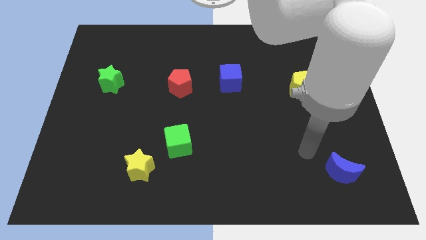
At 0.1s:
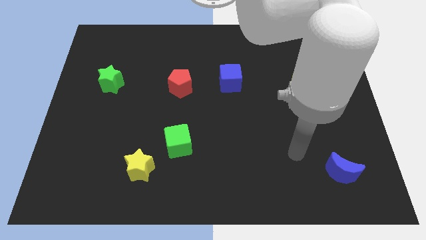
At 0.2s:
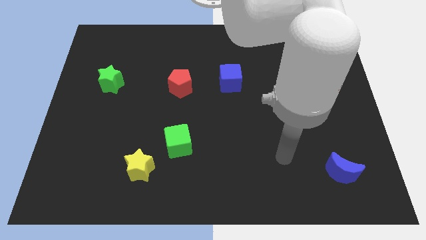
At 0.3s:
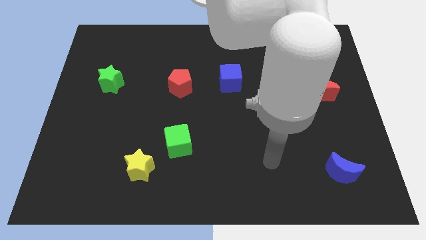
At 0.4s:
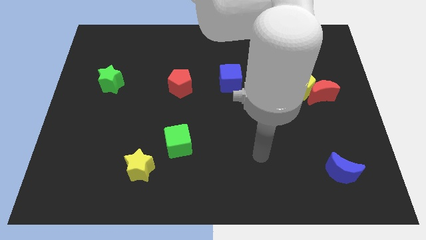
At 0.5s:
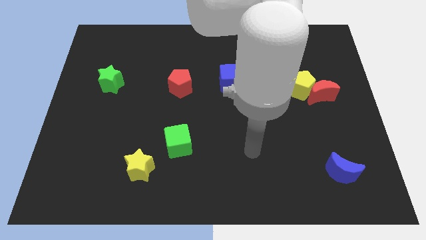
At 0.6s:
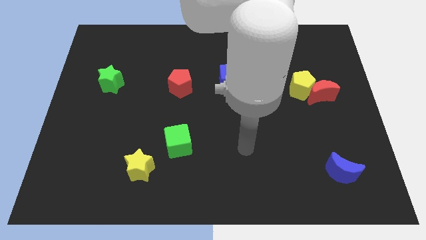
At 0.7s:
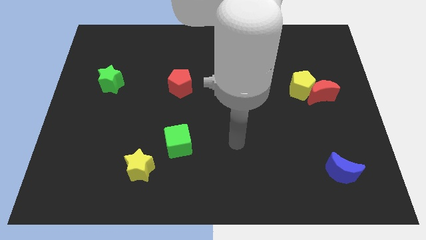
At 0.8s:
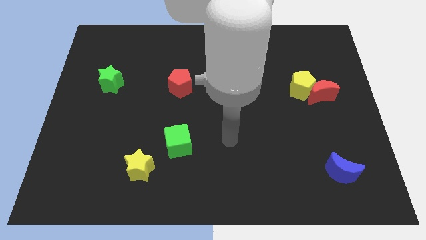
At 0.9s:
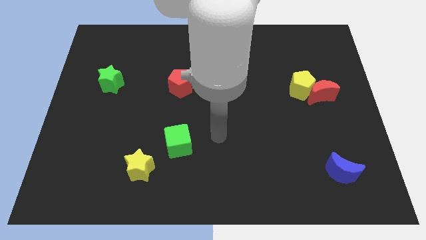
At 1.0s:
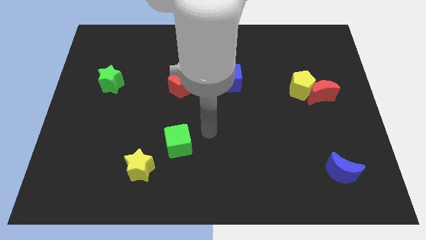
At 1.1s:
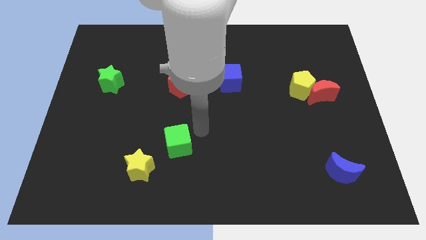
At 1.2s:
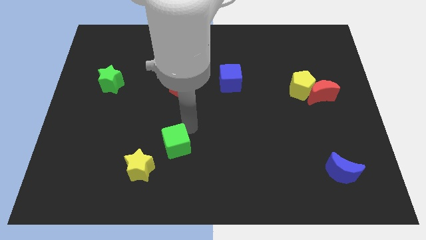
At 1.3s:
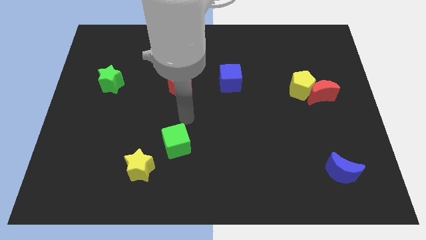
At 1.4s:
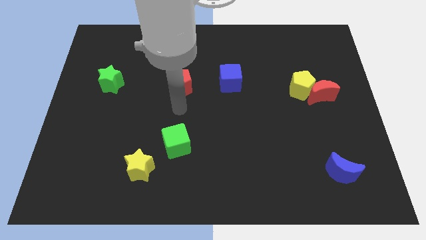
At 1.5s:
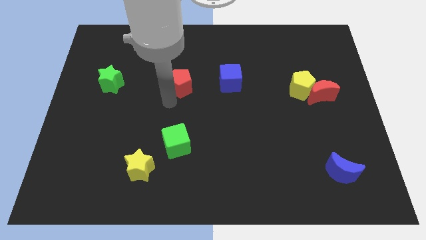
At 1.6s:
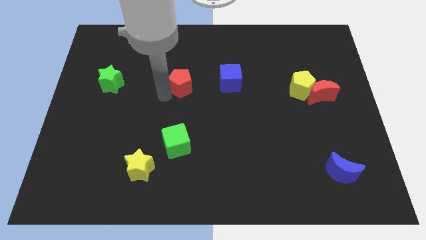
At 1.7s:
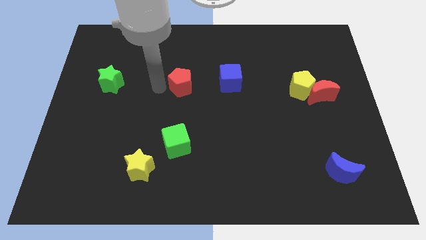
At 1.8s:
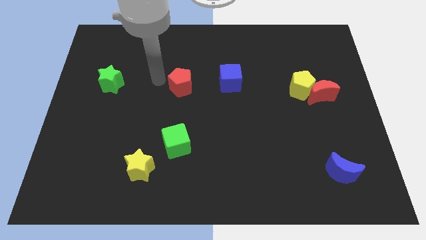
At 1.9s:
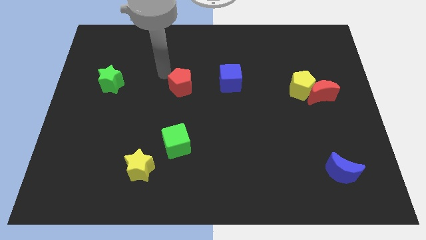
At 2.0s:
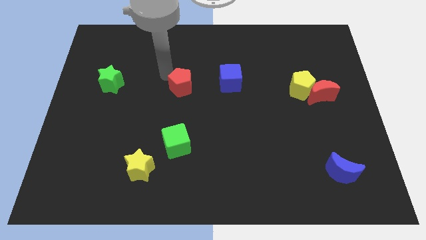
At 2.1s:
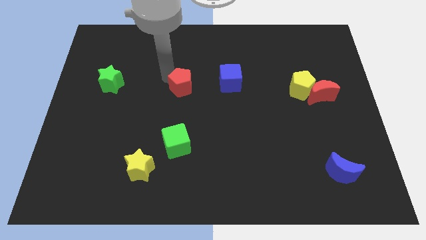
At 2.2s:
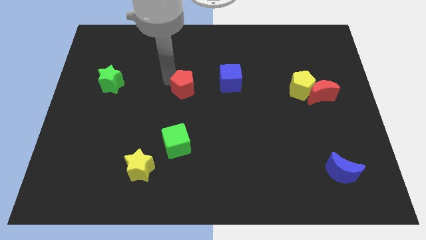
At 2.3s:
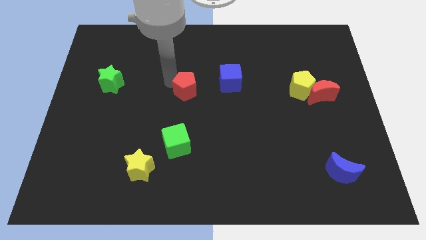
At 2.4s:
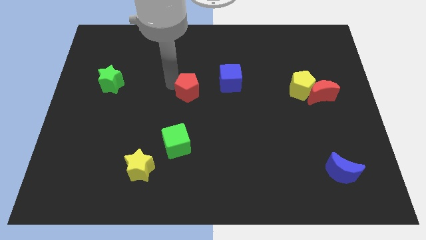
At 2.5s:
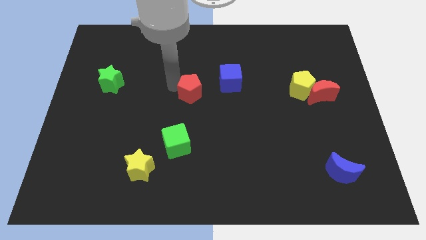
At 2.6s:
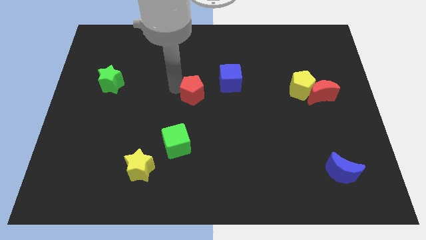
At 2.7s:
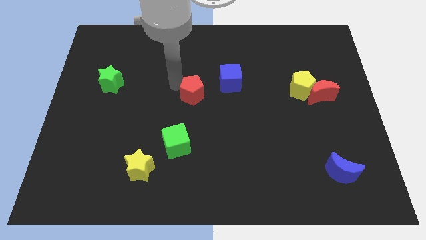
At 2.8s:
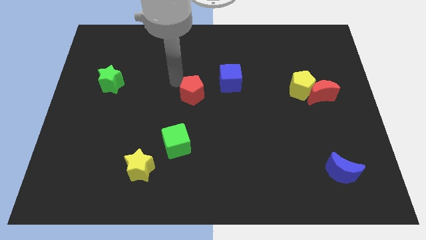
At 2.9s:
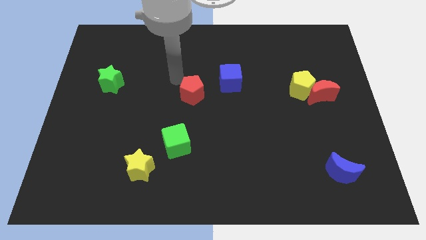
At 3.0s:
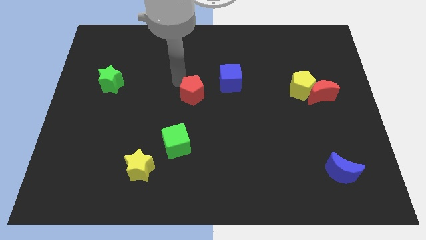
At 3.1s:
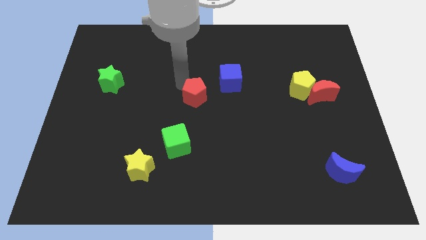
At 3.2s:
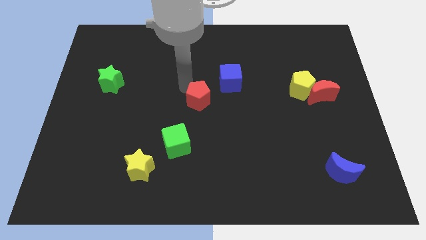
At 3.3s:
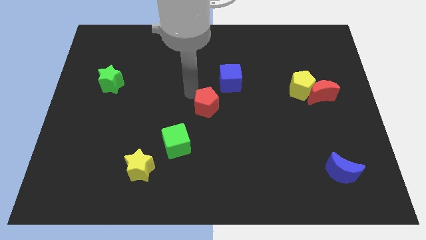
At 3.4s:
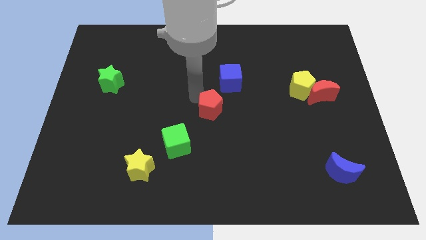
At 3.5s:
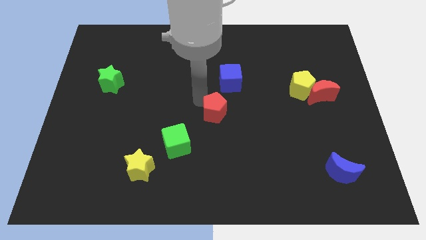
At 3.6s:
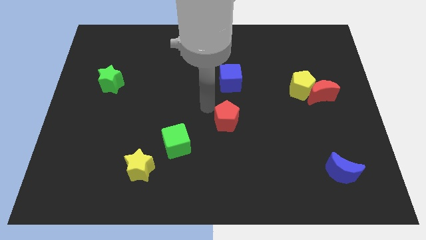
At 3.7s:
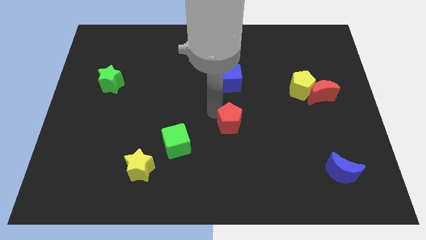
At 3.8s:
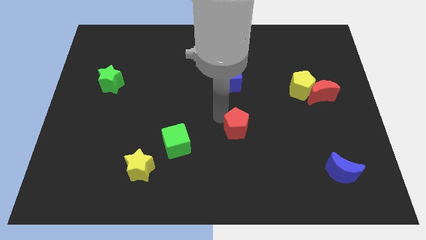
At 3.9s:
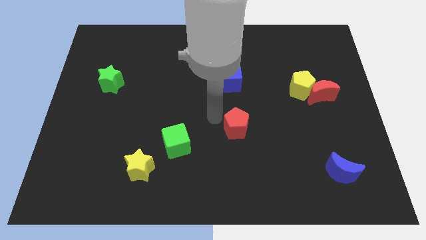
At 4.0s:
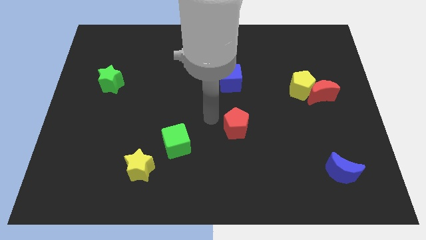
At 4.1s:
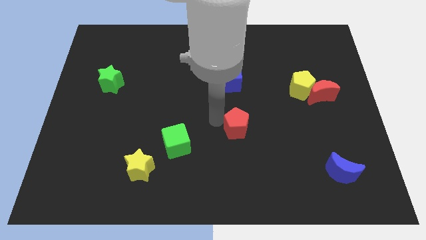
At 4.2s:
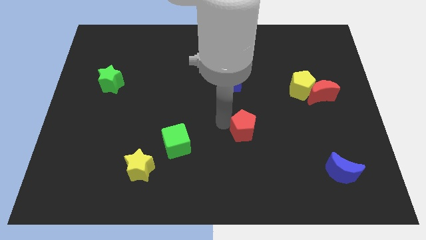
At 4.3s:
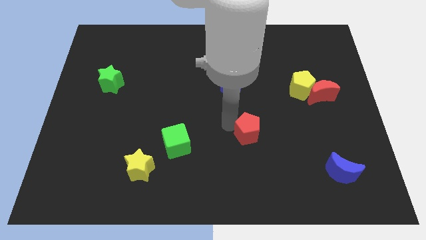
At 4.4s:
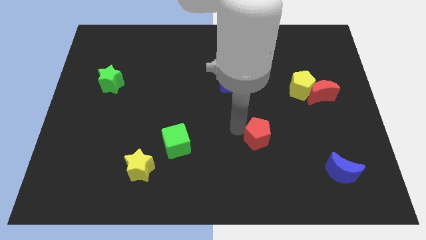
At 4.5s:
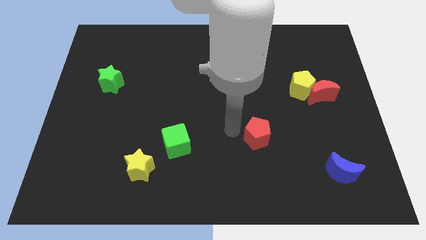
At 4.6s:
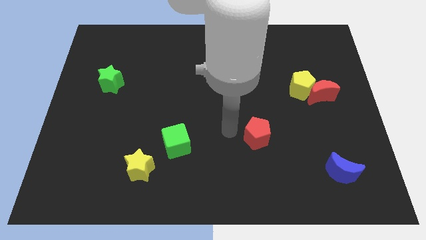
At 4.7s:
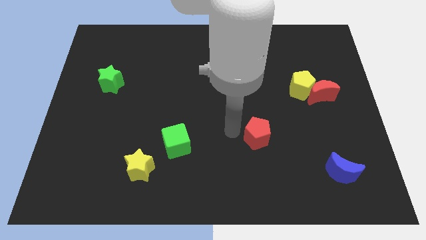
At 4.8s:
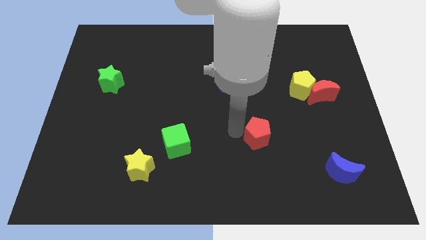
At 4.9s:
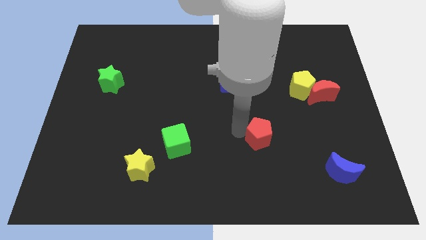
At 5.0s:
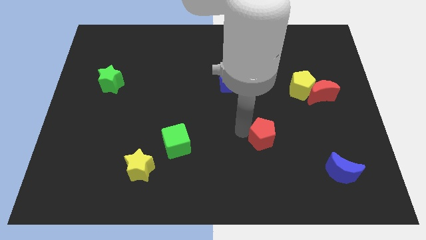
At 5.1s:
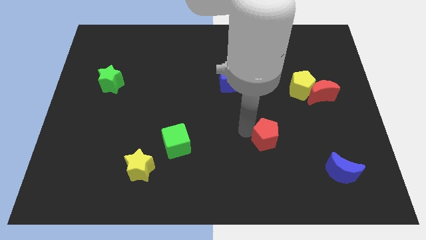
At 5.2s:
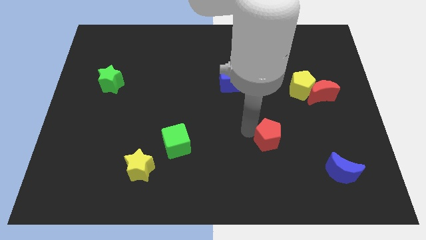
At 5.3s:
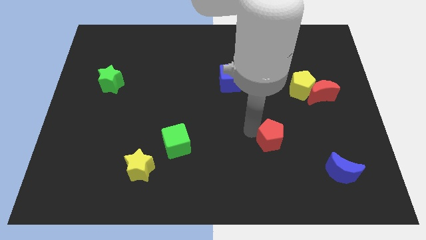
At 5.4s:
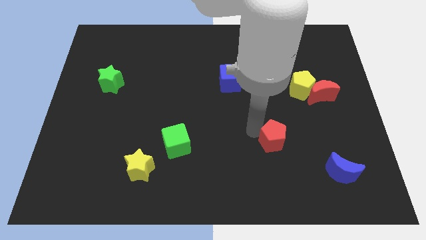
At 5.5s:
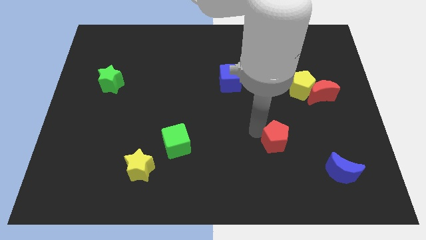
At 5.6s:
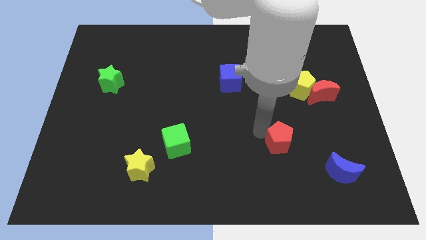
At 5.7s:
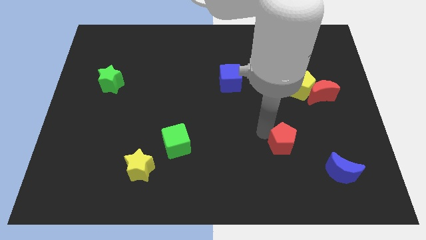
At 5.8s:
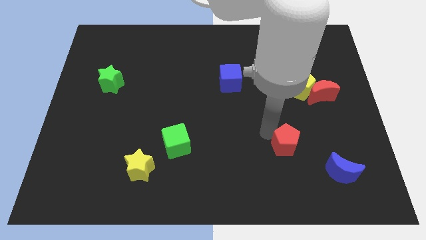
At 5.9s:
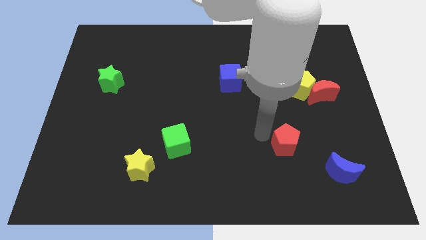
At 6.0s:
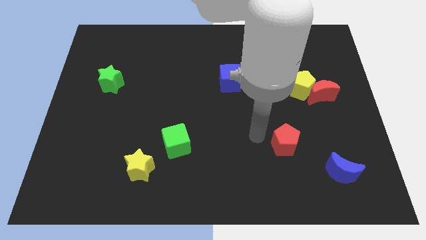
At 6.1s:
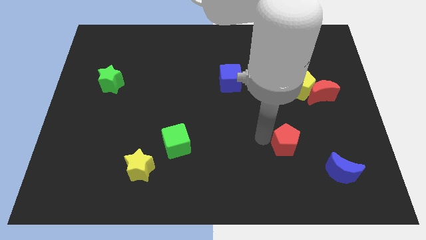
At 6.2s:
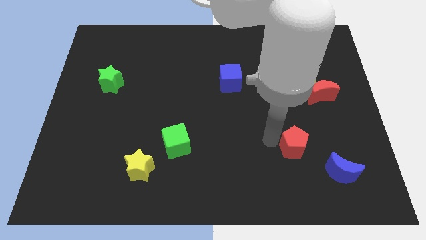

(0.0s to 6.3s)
push the red pentagon to the top left side of the blue moon
